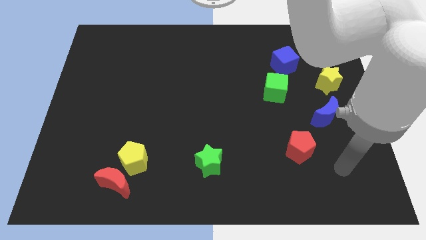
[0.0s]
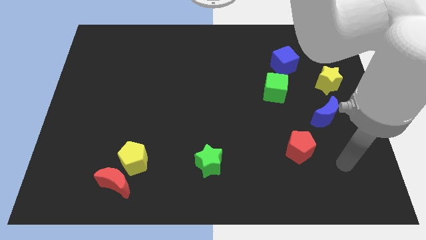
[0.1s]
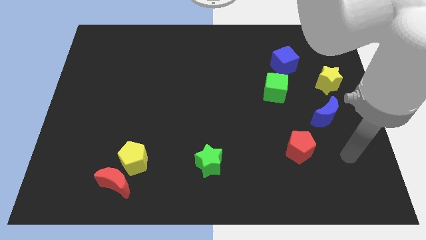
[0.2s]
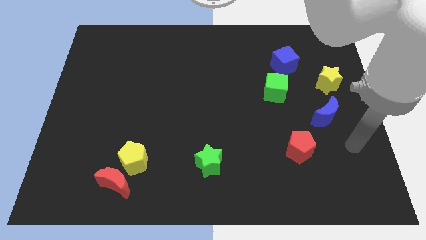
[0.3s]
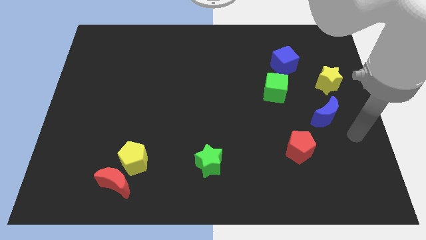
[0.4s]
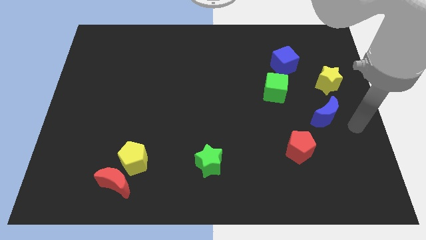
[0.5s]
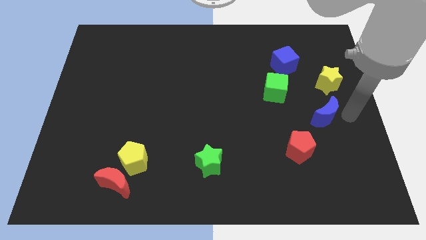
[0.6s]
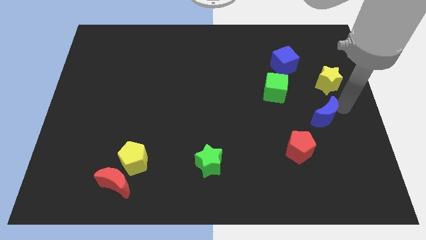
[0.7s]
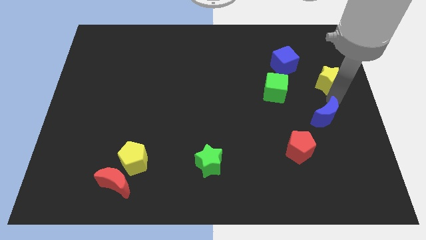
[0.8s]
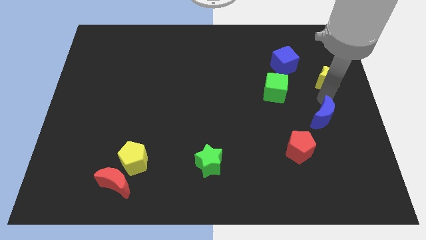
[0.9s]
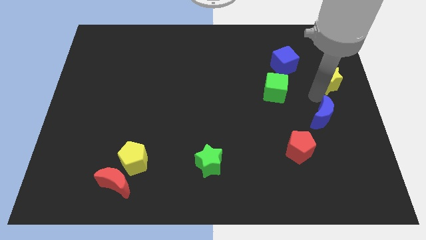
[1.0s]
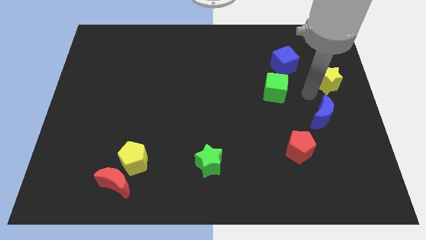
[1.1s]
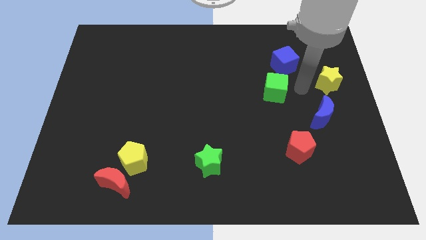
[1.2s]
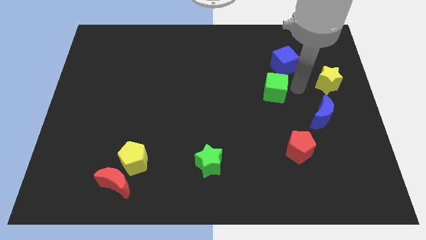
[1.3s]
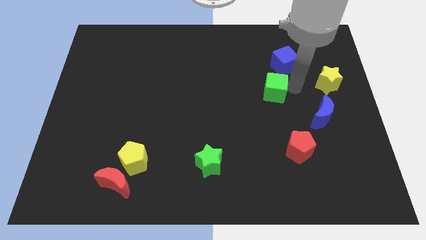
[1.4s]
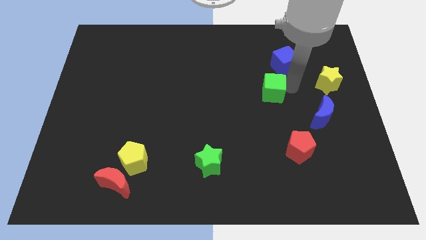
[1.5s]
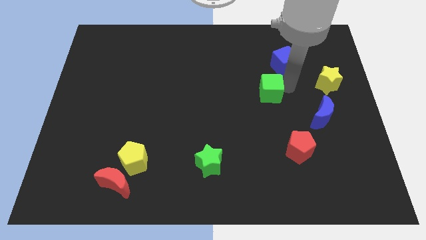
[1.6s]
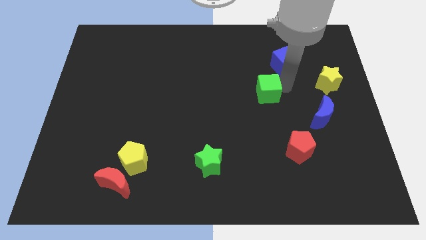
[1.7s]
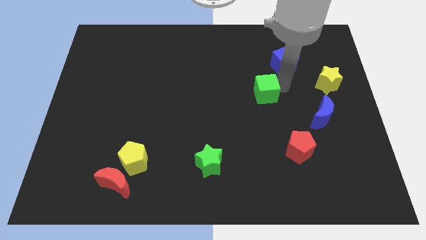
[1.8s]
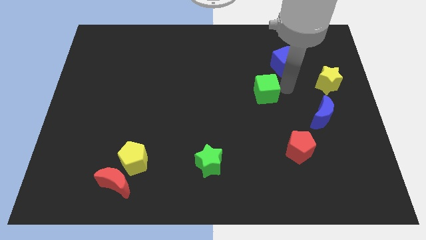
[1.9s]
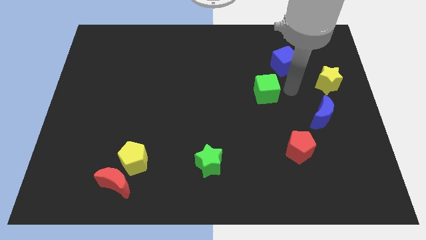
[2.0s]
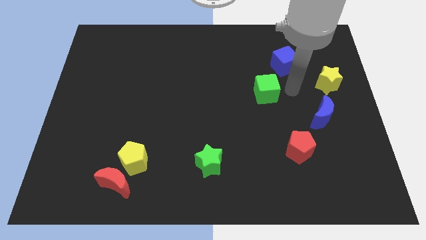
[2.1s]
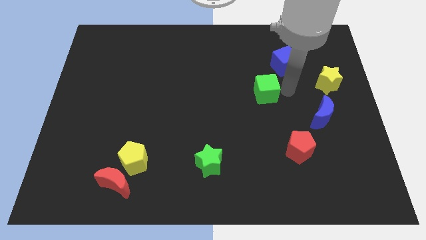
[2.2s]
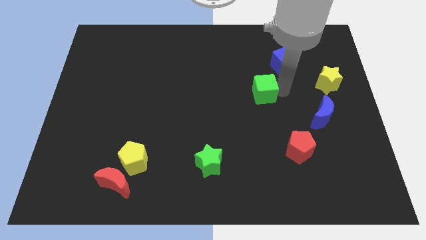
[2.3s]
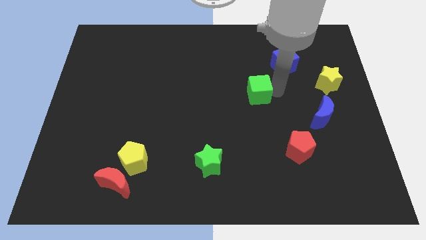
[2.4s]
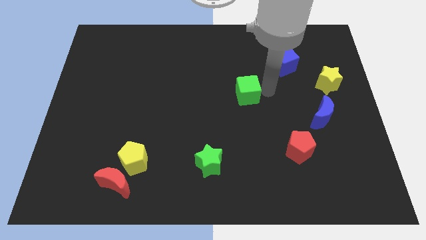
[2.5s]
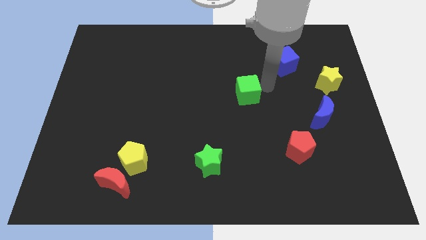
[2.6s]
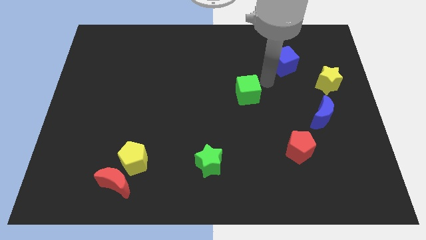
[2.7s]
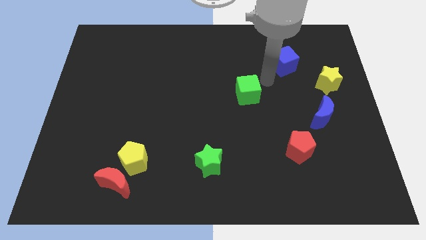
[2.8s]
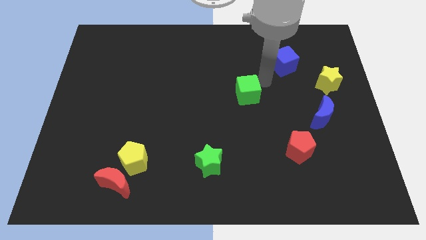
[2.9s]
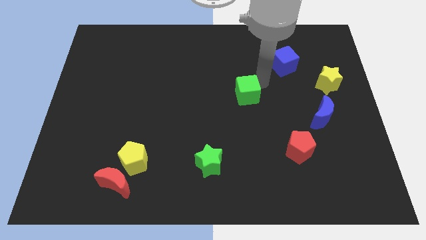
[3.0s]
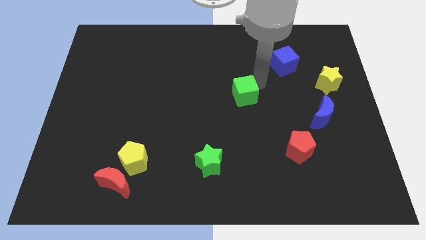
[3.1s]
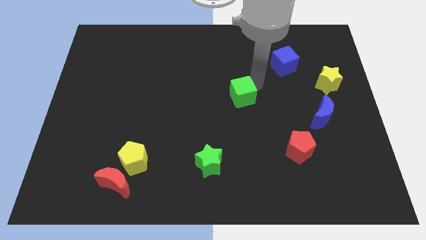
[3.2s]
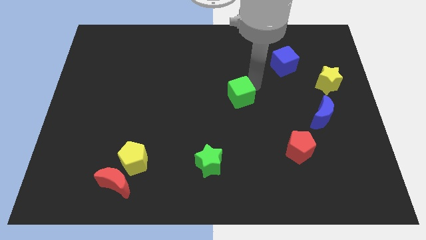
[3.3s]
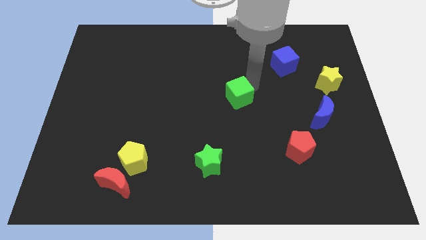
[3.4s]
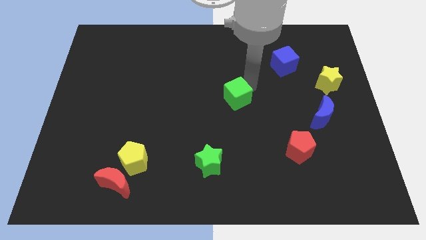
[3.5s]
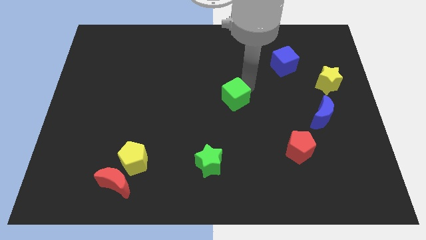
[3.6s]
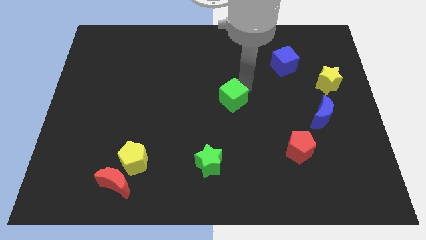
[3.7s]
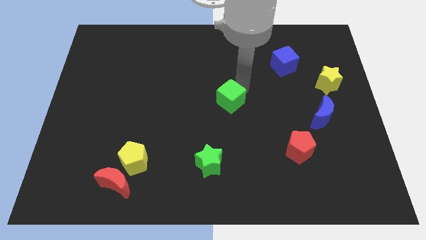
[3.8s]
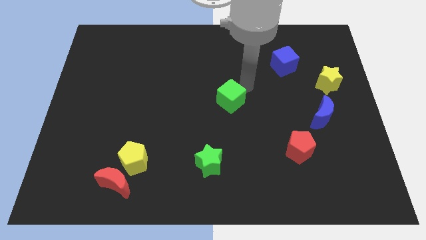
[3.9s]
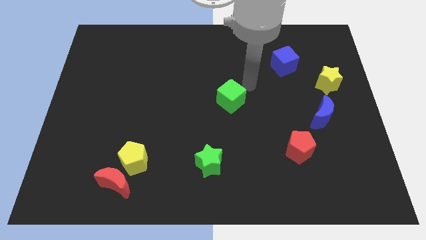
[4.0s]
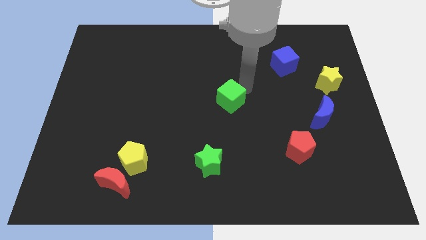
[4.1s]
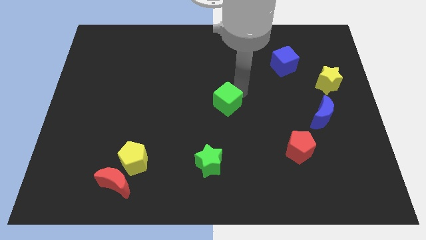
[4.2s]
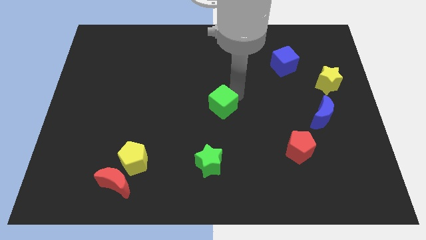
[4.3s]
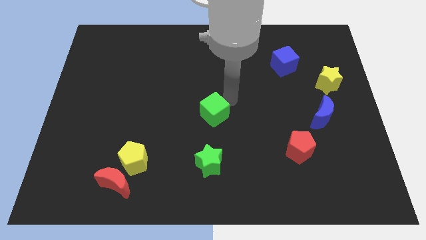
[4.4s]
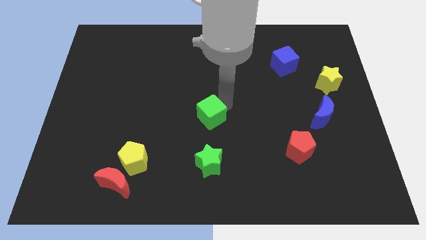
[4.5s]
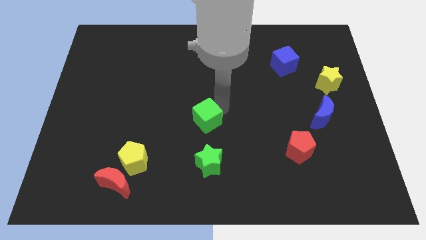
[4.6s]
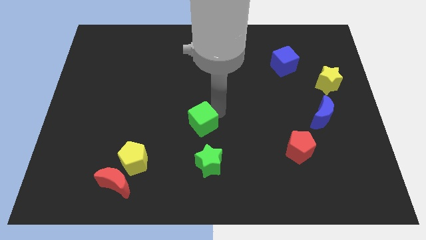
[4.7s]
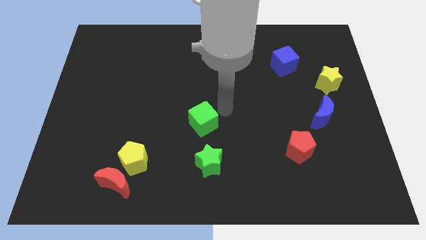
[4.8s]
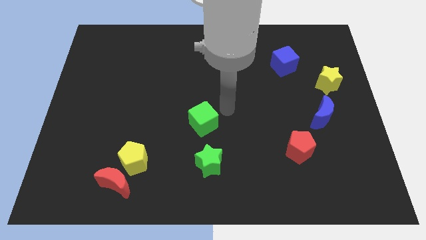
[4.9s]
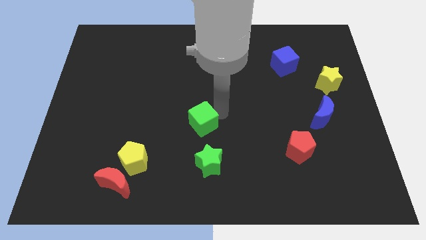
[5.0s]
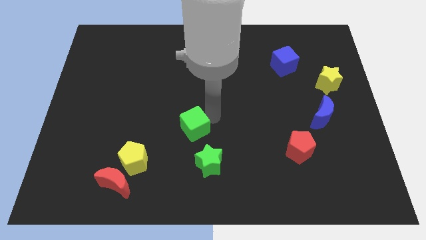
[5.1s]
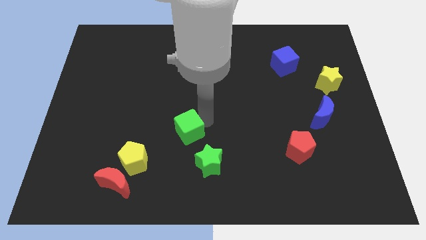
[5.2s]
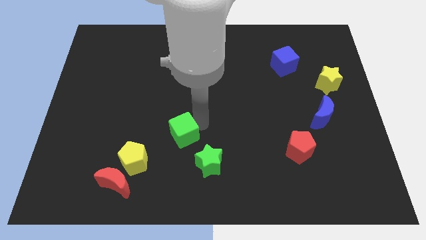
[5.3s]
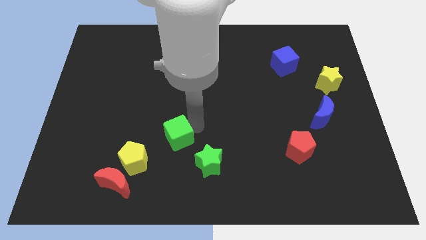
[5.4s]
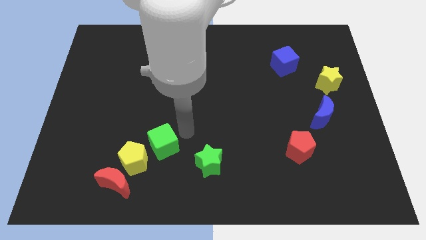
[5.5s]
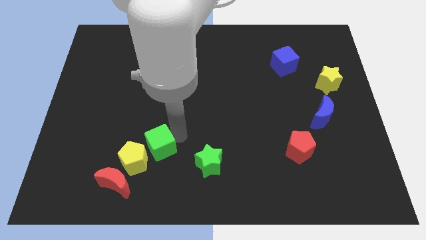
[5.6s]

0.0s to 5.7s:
slide the green cube towards the yellow pentagon

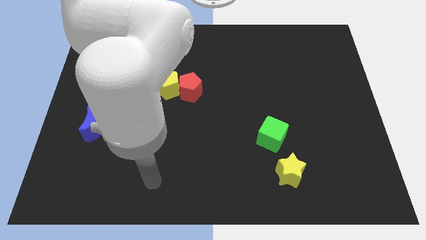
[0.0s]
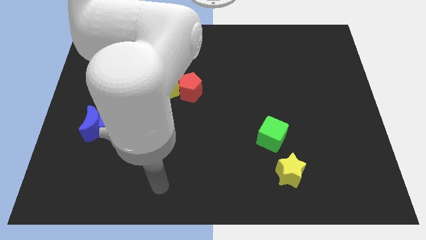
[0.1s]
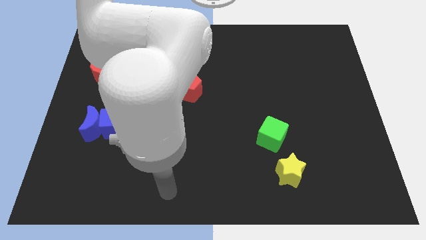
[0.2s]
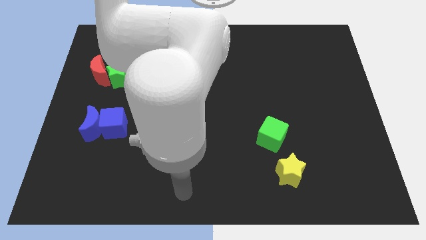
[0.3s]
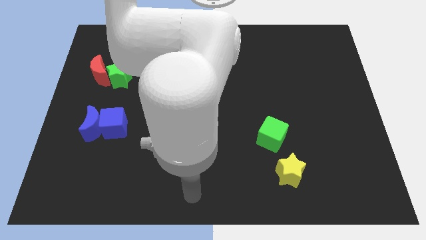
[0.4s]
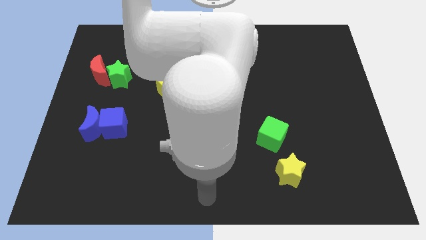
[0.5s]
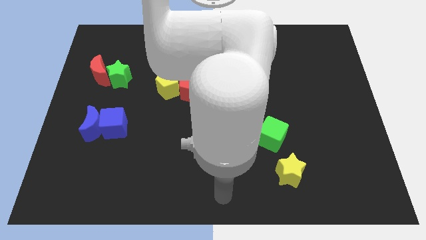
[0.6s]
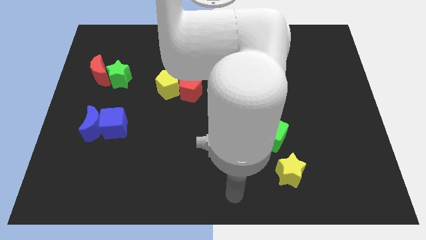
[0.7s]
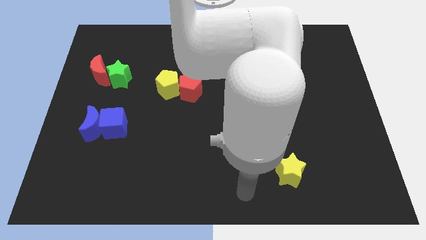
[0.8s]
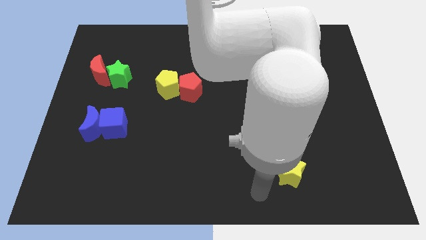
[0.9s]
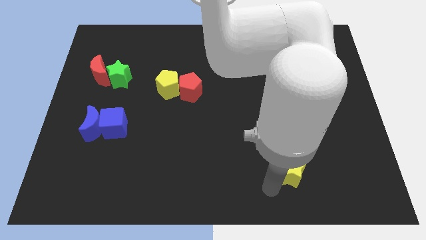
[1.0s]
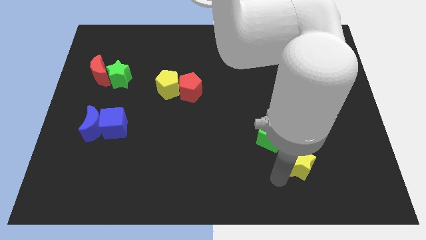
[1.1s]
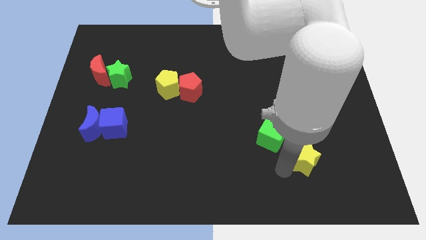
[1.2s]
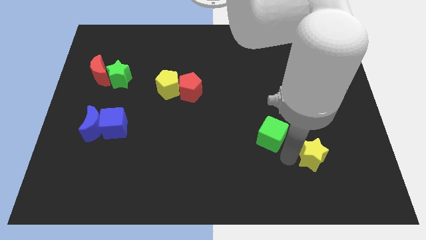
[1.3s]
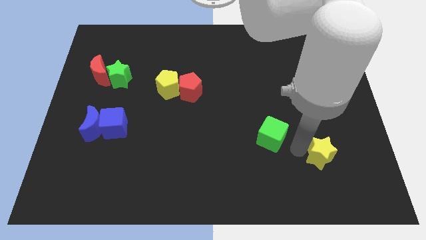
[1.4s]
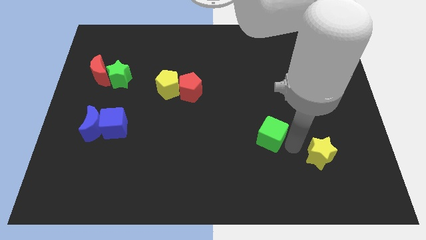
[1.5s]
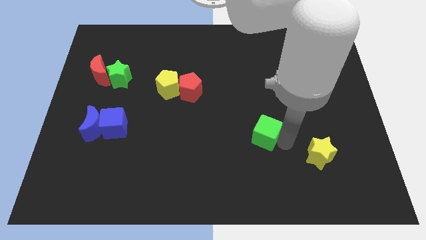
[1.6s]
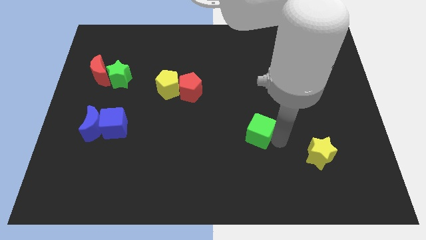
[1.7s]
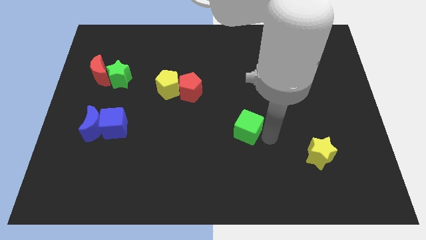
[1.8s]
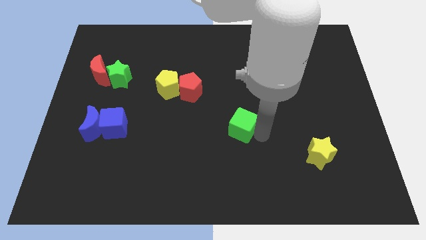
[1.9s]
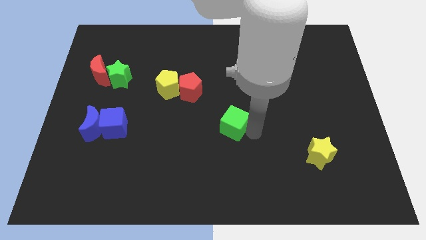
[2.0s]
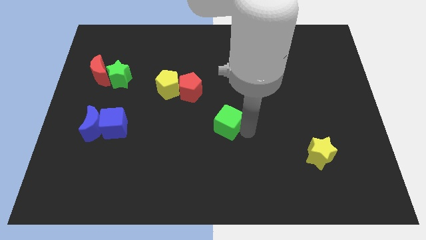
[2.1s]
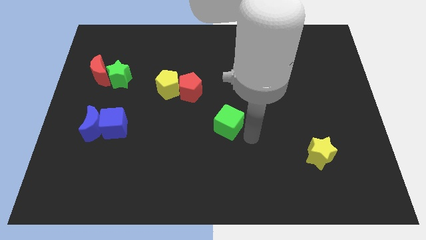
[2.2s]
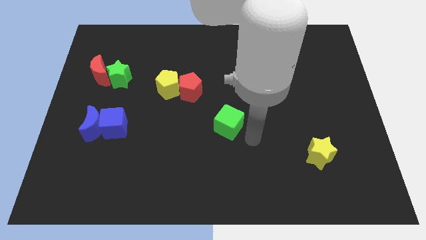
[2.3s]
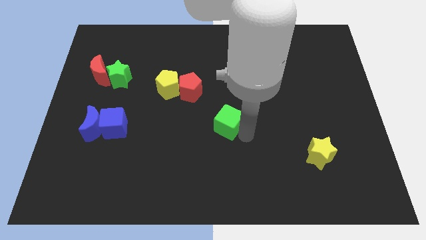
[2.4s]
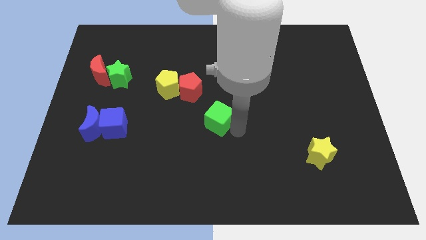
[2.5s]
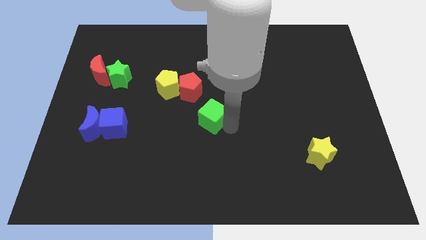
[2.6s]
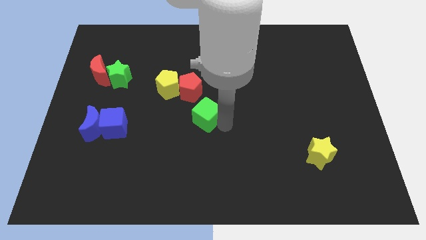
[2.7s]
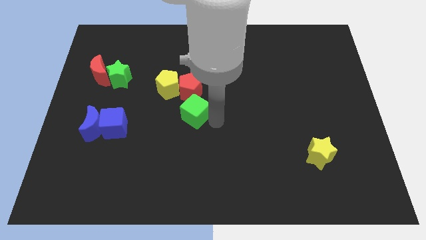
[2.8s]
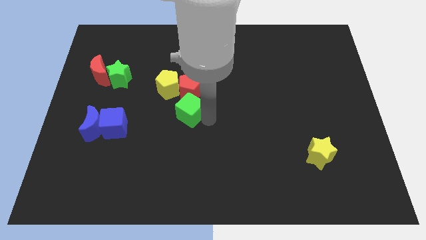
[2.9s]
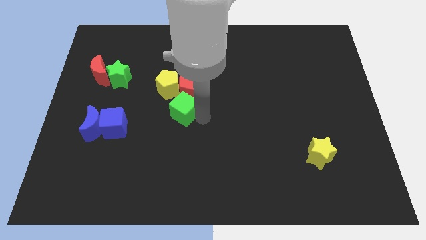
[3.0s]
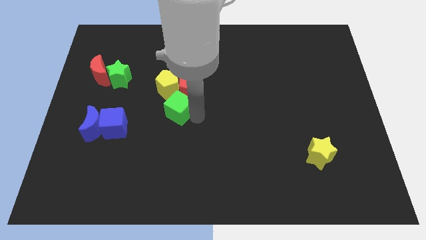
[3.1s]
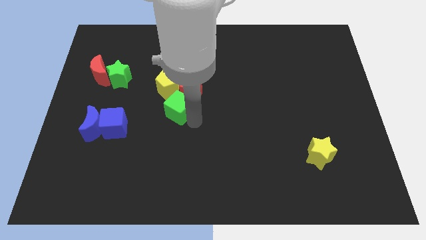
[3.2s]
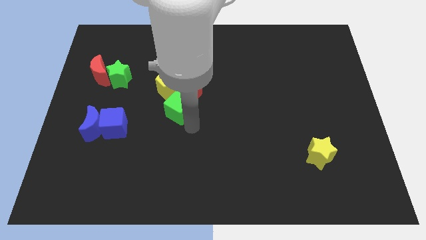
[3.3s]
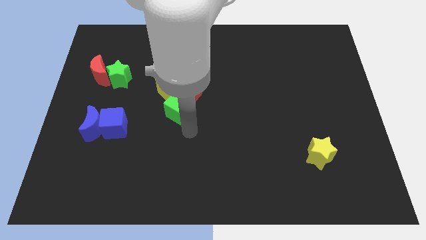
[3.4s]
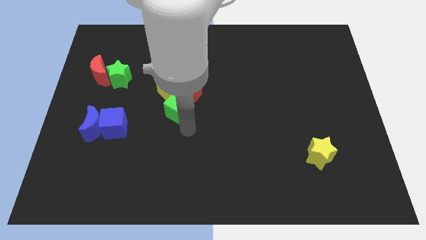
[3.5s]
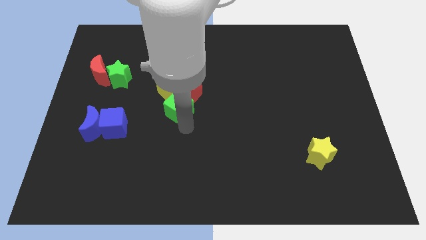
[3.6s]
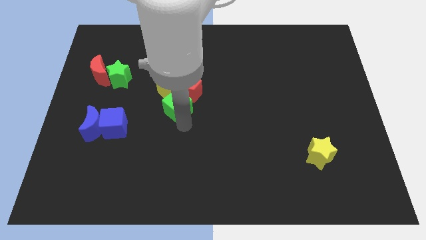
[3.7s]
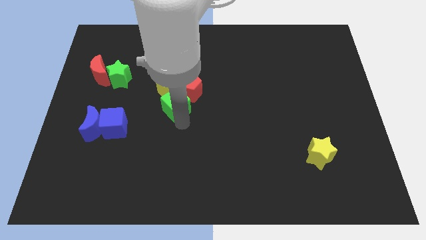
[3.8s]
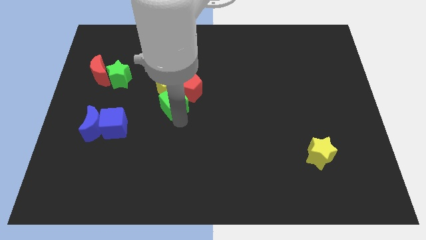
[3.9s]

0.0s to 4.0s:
move the green cube next to the yellow pentagon
